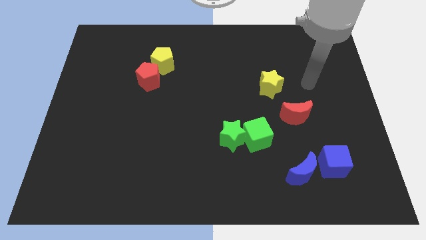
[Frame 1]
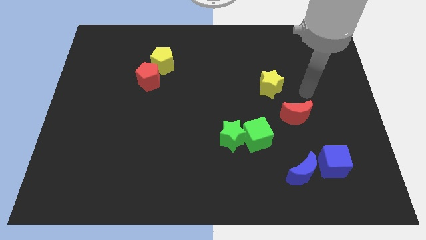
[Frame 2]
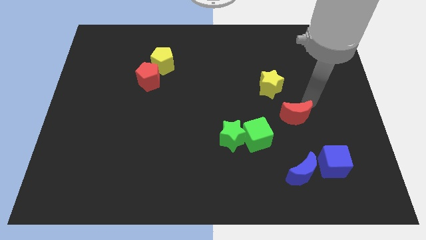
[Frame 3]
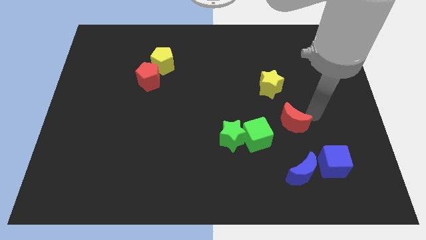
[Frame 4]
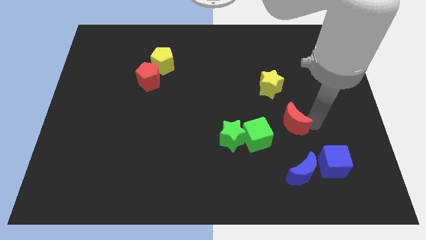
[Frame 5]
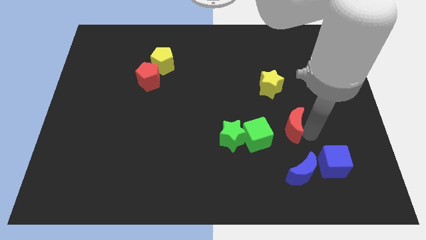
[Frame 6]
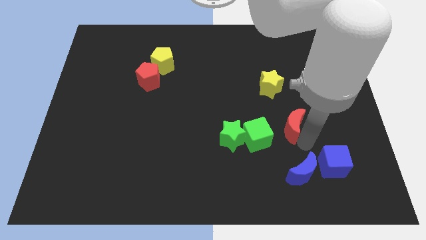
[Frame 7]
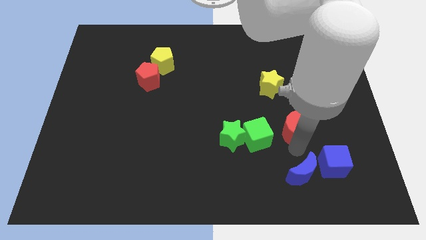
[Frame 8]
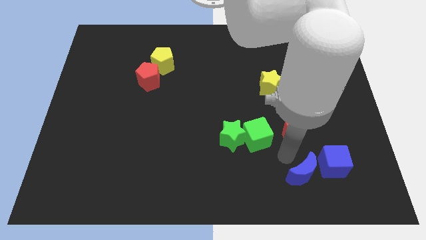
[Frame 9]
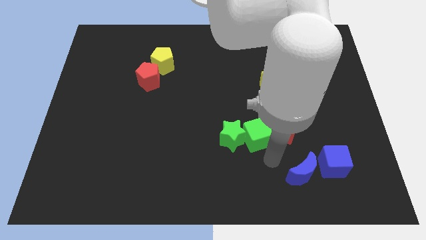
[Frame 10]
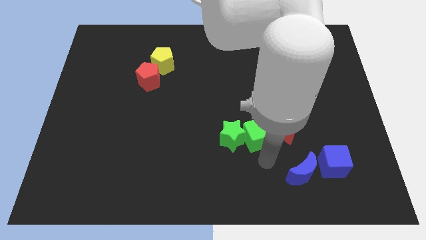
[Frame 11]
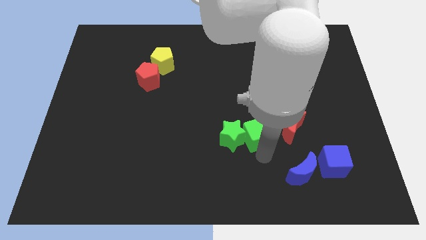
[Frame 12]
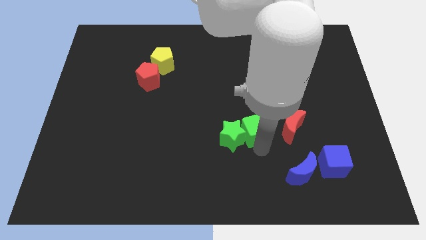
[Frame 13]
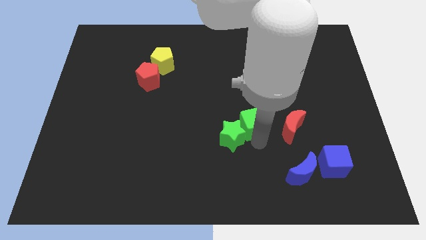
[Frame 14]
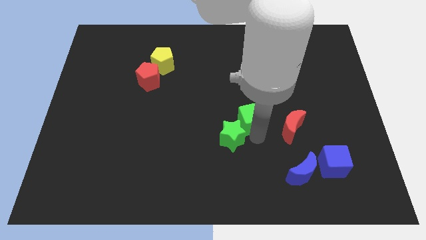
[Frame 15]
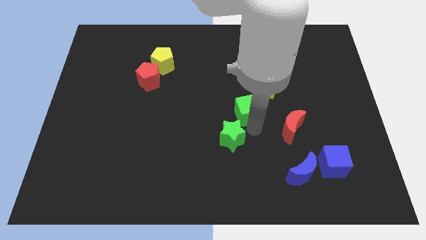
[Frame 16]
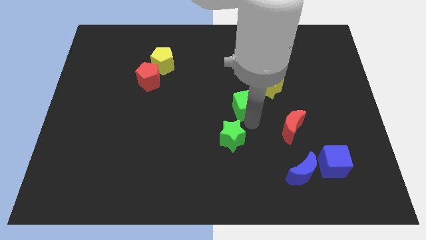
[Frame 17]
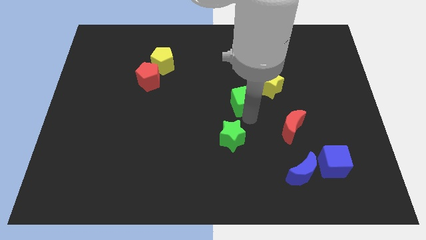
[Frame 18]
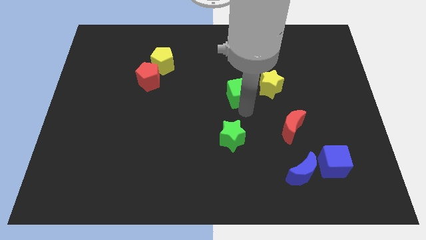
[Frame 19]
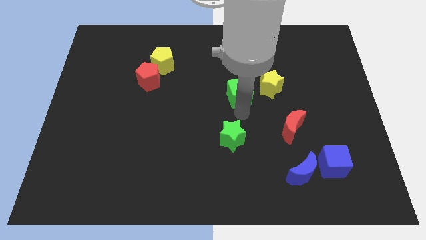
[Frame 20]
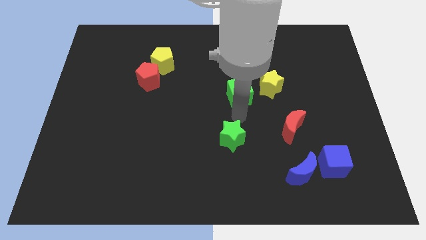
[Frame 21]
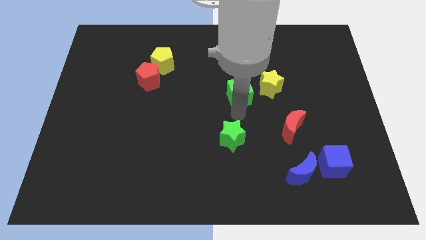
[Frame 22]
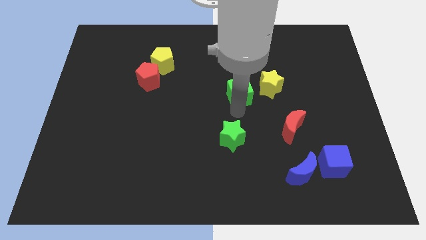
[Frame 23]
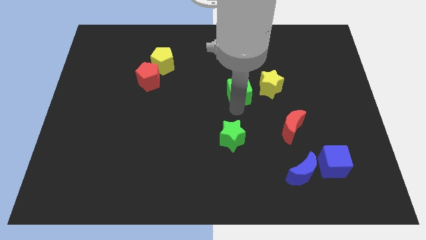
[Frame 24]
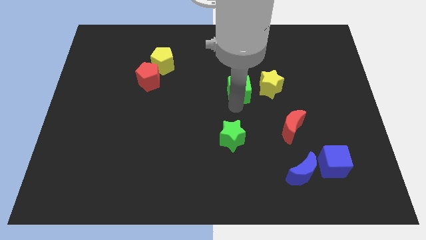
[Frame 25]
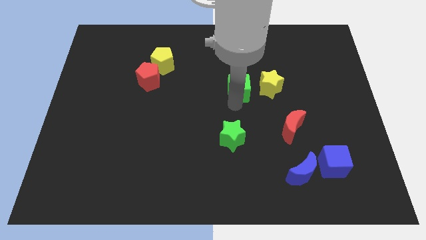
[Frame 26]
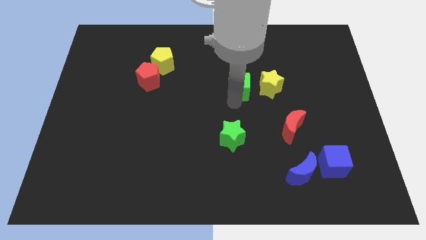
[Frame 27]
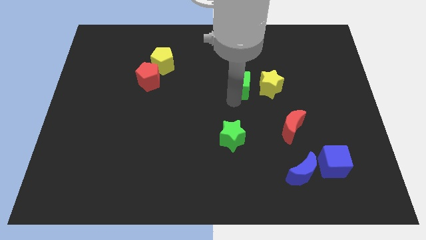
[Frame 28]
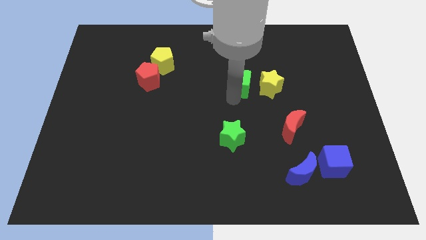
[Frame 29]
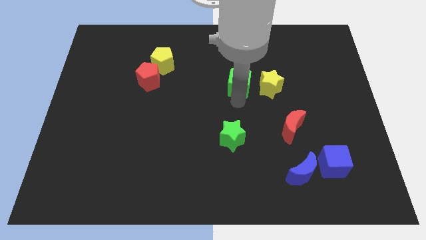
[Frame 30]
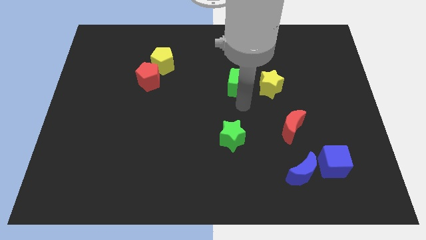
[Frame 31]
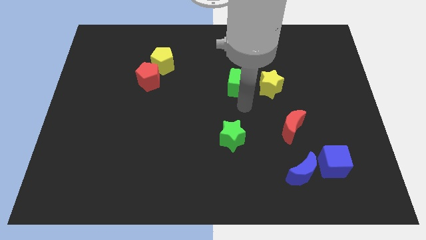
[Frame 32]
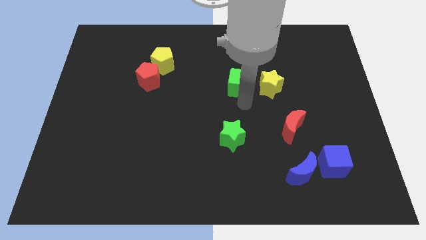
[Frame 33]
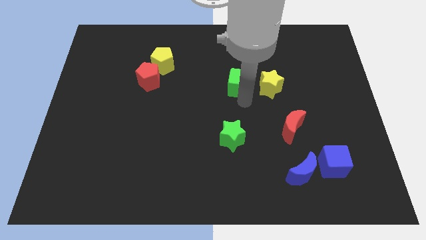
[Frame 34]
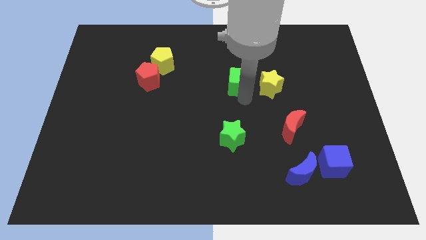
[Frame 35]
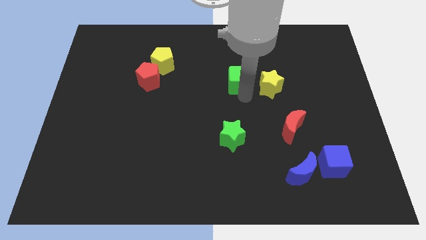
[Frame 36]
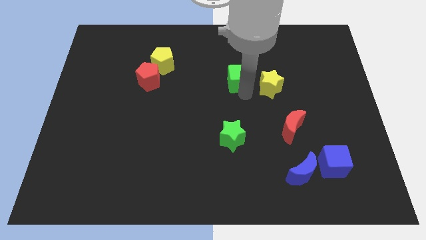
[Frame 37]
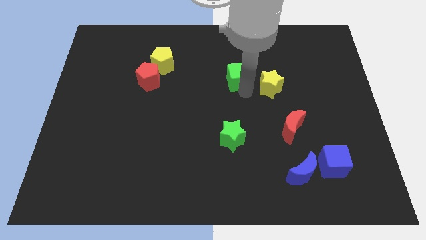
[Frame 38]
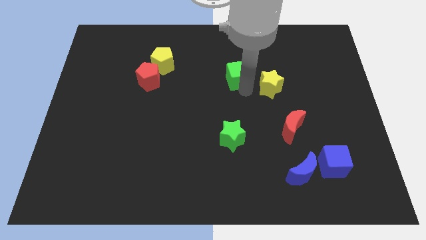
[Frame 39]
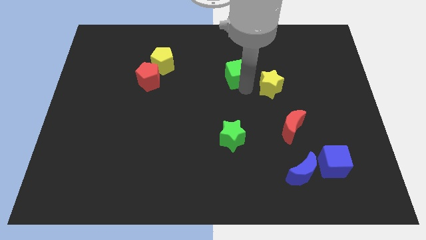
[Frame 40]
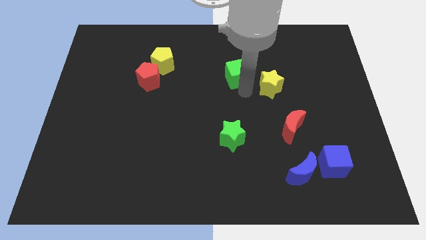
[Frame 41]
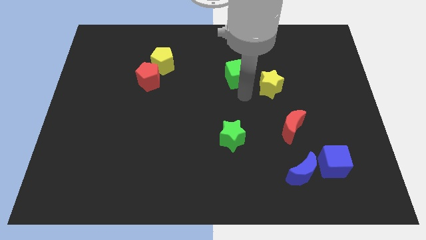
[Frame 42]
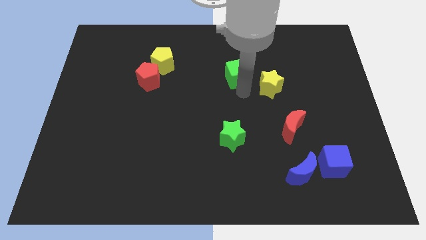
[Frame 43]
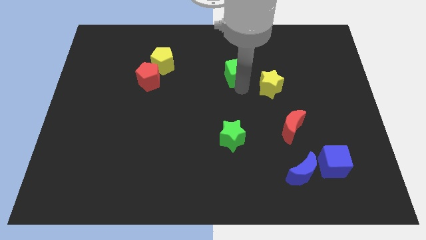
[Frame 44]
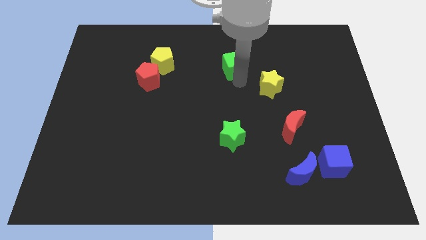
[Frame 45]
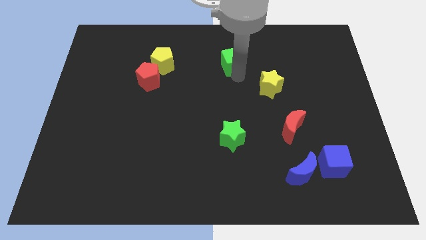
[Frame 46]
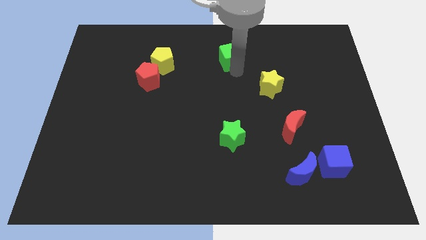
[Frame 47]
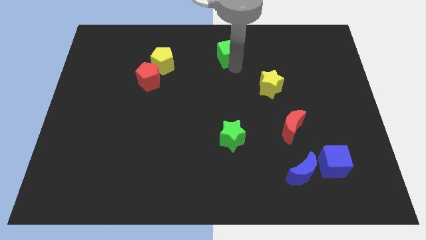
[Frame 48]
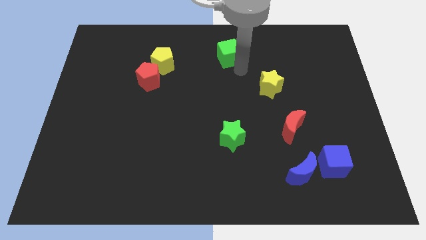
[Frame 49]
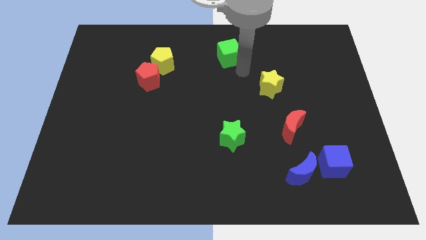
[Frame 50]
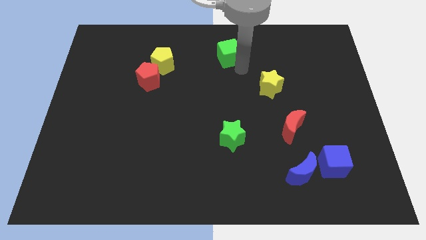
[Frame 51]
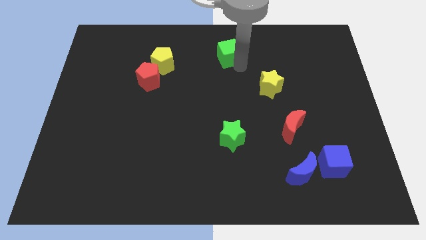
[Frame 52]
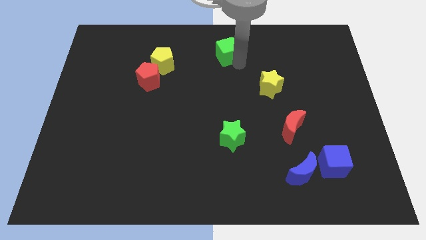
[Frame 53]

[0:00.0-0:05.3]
push the green cube to the towards your base

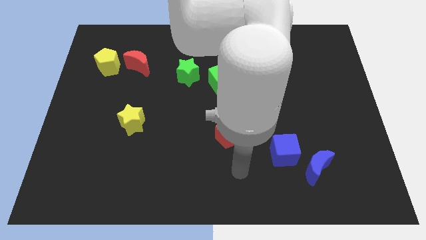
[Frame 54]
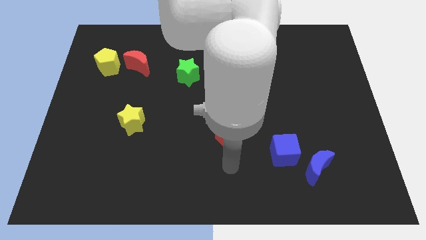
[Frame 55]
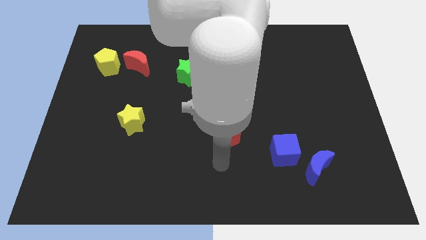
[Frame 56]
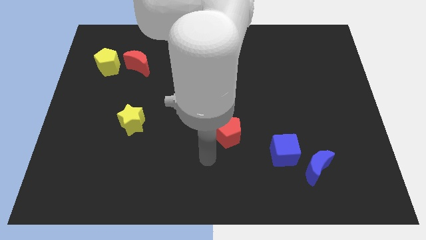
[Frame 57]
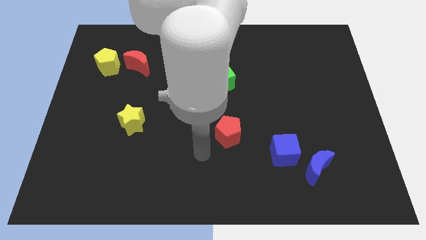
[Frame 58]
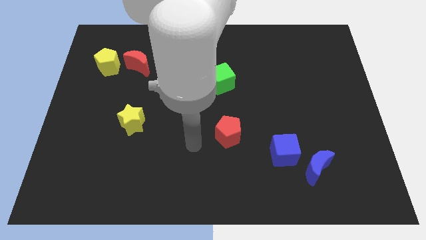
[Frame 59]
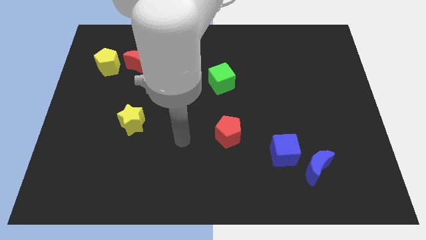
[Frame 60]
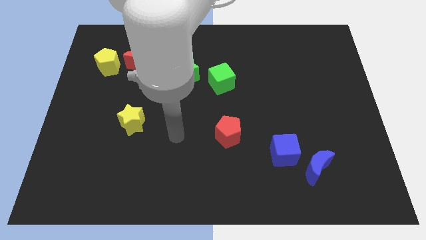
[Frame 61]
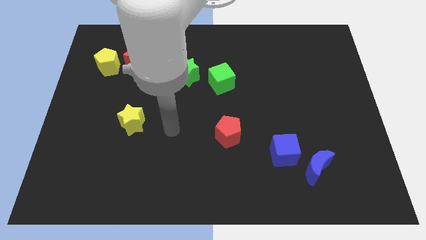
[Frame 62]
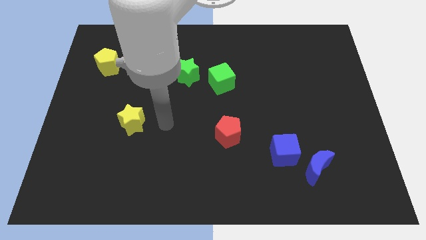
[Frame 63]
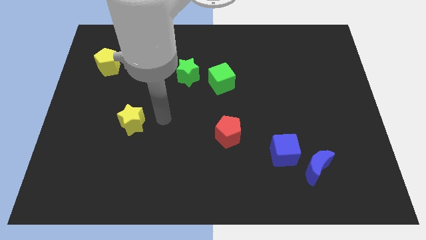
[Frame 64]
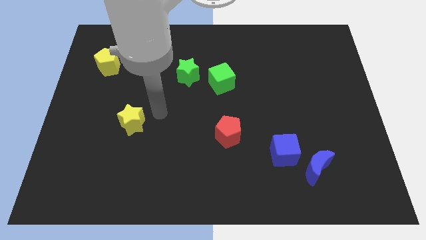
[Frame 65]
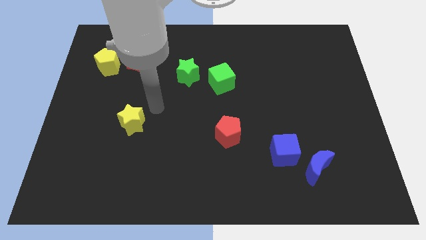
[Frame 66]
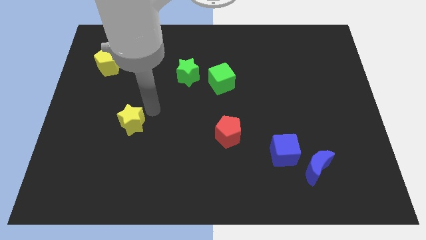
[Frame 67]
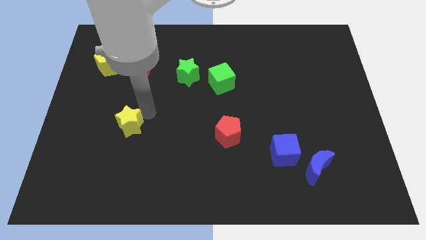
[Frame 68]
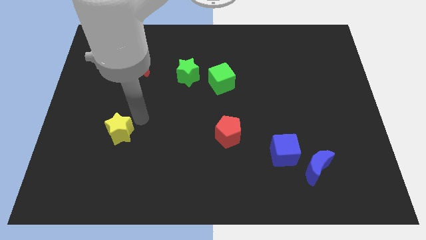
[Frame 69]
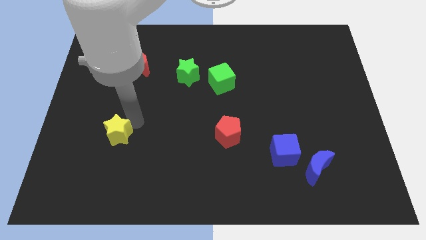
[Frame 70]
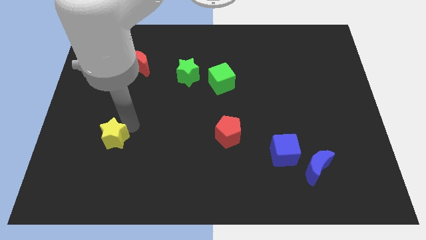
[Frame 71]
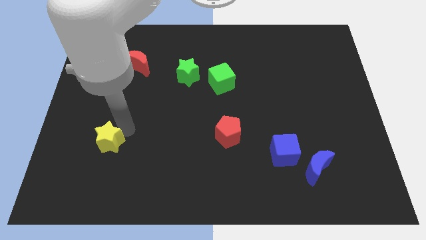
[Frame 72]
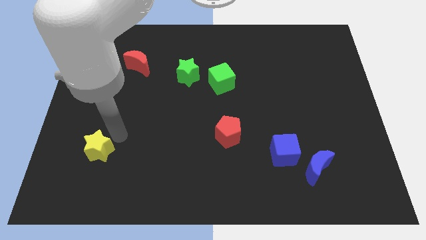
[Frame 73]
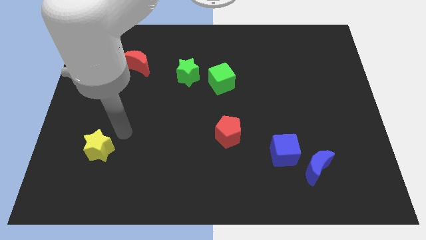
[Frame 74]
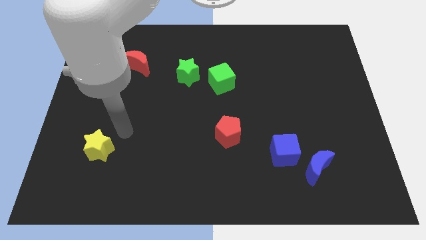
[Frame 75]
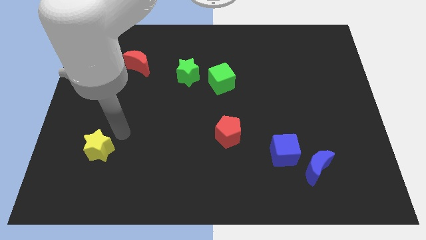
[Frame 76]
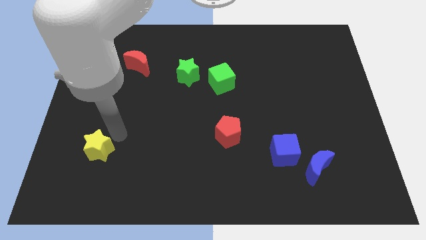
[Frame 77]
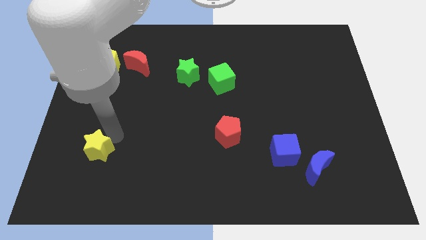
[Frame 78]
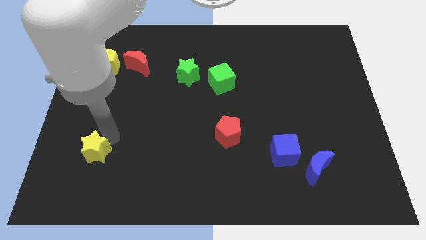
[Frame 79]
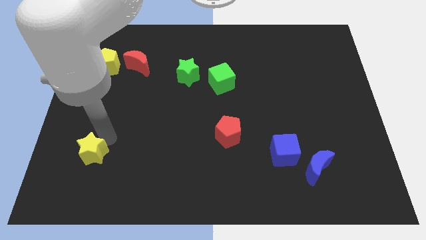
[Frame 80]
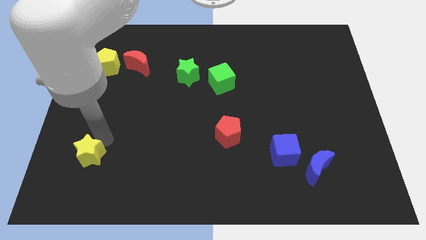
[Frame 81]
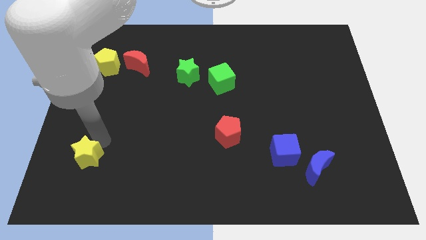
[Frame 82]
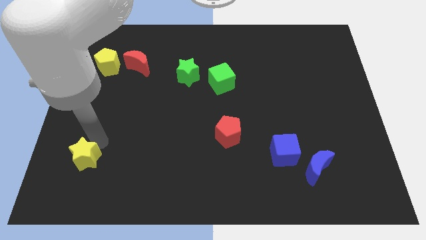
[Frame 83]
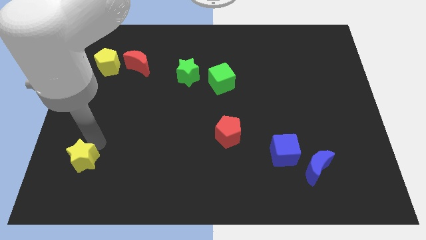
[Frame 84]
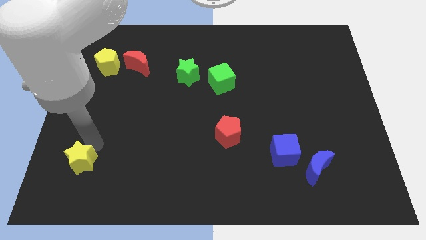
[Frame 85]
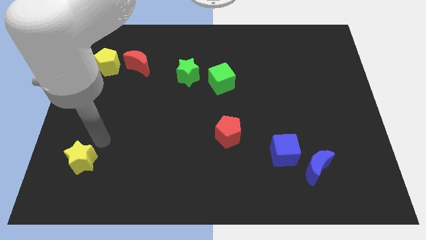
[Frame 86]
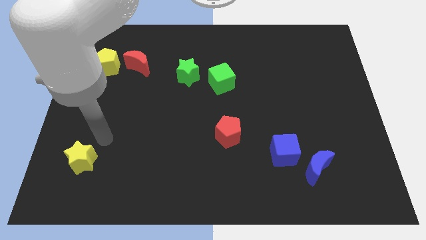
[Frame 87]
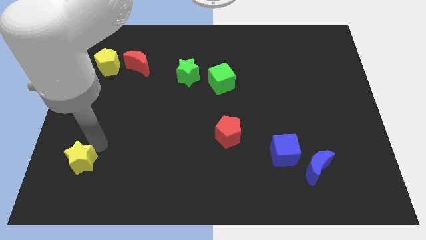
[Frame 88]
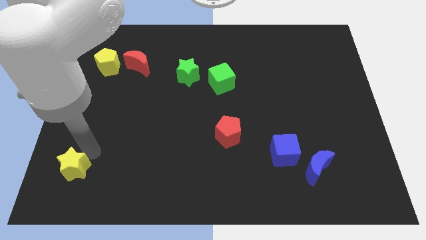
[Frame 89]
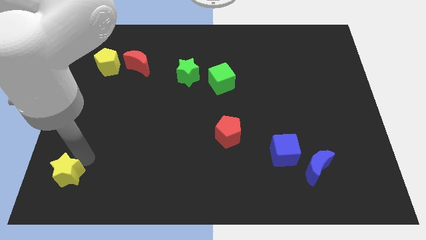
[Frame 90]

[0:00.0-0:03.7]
move the yellow star to the bottom left of the board
